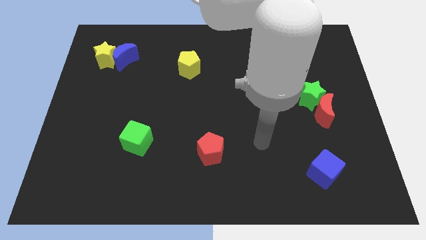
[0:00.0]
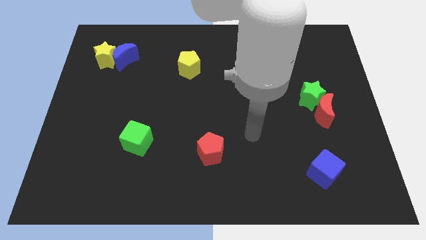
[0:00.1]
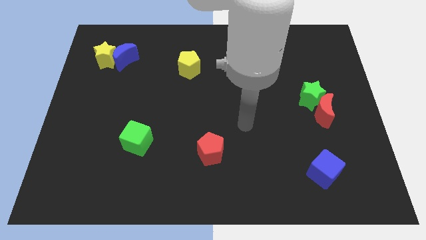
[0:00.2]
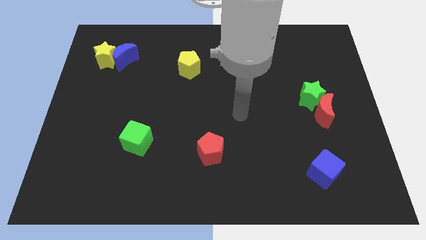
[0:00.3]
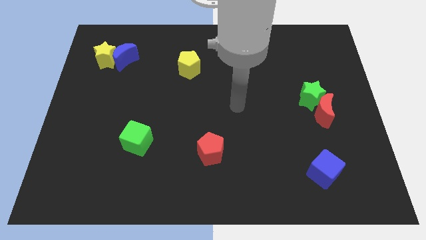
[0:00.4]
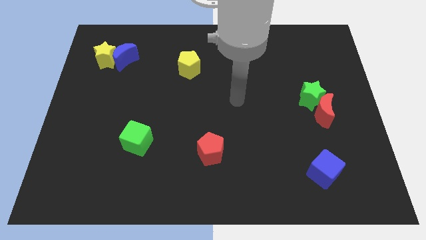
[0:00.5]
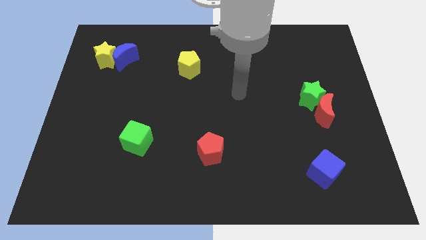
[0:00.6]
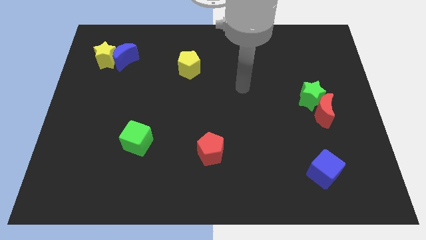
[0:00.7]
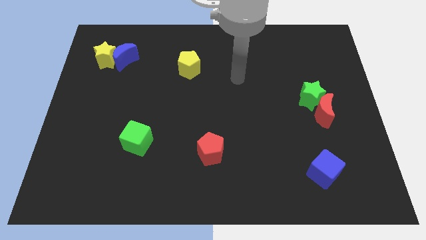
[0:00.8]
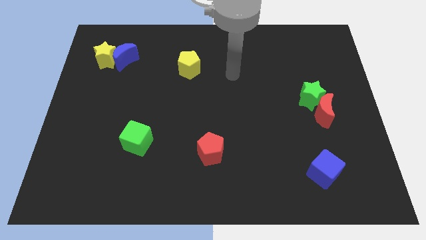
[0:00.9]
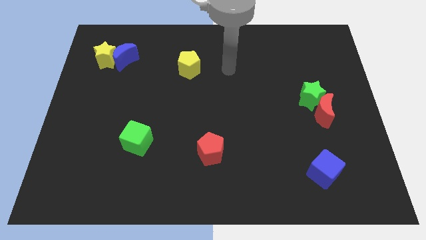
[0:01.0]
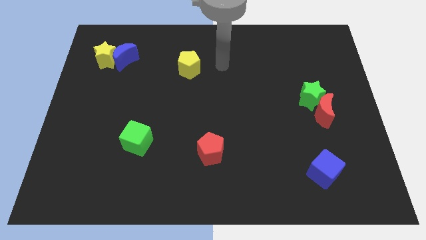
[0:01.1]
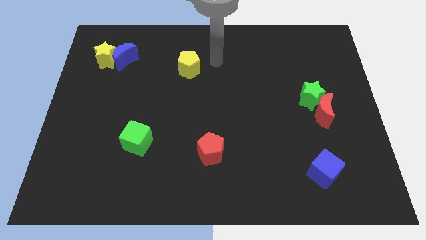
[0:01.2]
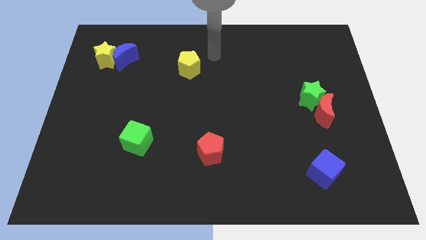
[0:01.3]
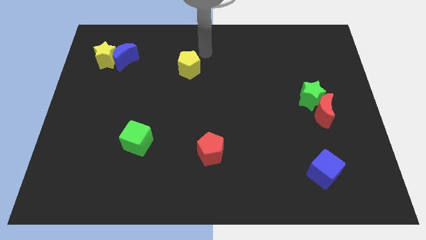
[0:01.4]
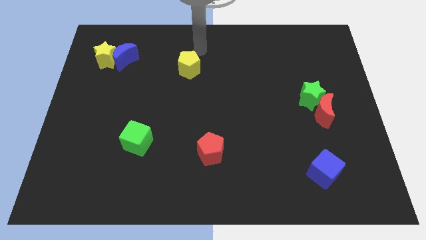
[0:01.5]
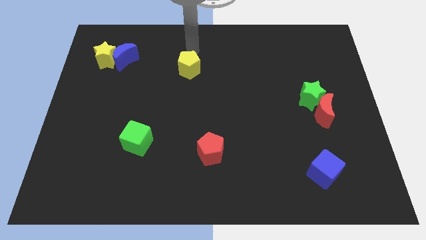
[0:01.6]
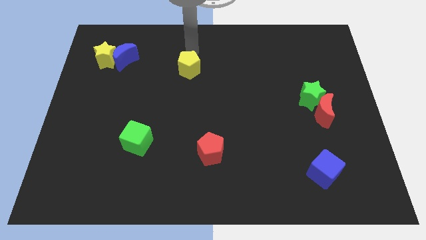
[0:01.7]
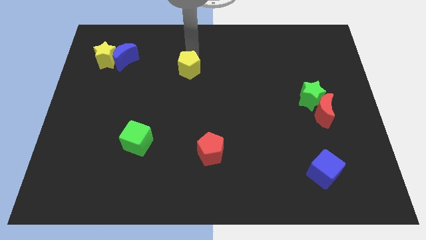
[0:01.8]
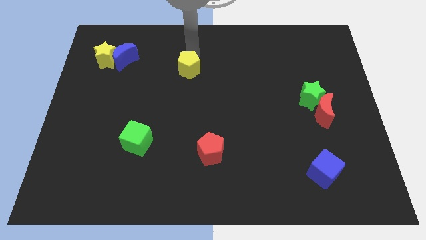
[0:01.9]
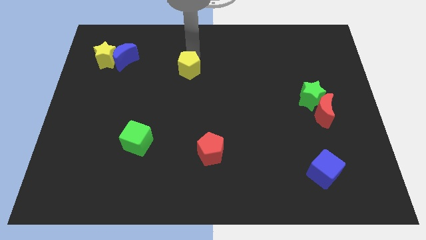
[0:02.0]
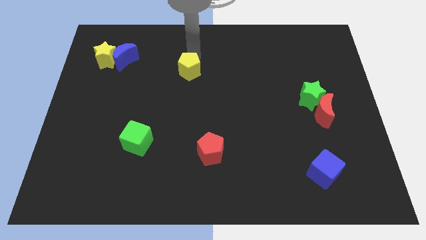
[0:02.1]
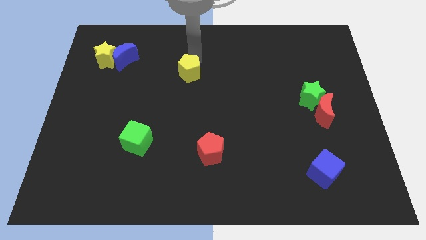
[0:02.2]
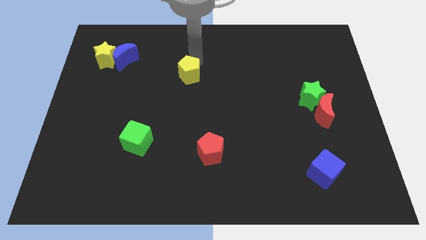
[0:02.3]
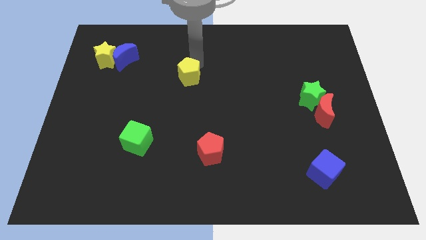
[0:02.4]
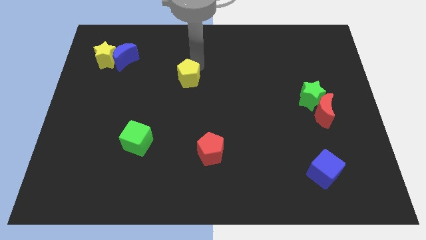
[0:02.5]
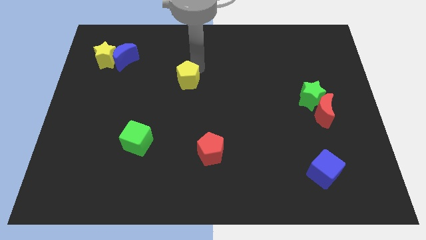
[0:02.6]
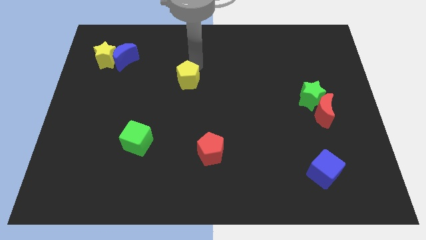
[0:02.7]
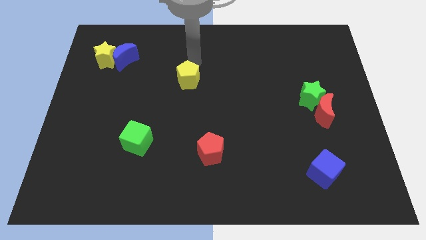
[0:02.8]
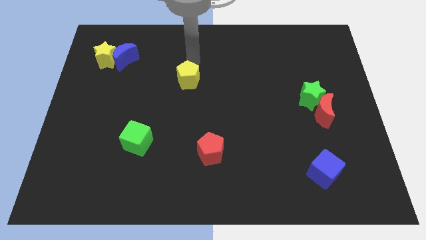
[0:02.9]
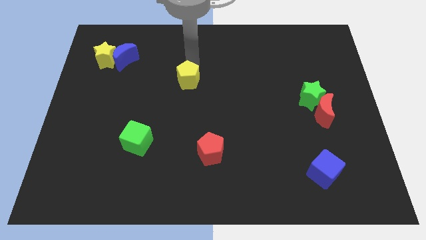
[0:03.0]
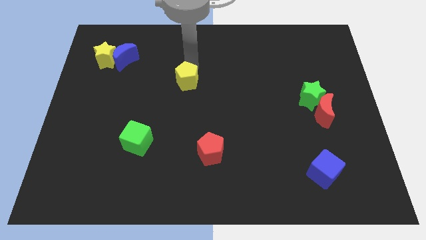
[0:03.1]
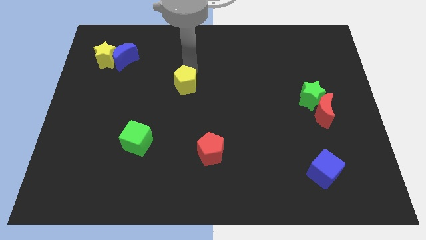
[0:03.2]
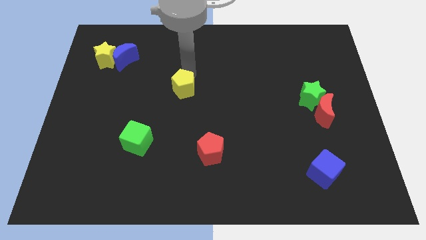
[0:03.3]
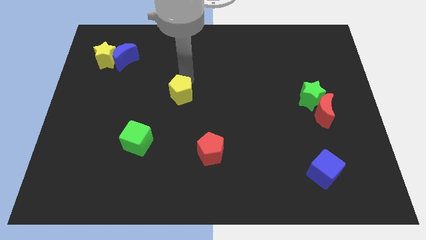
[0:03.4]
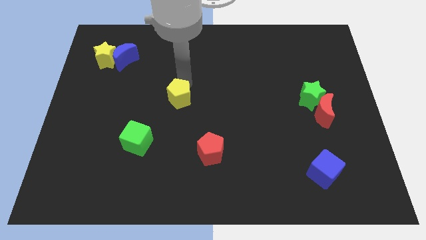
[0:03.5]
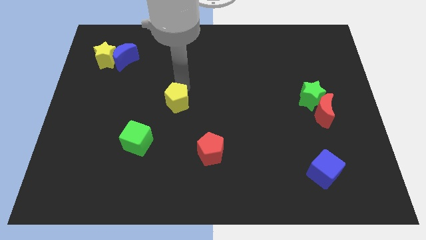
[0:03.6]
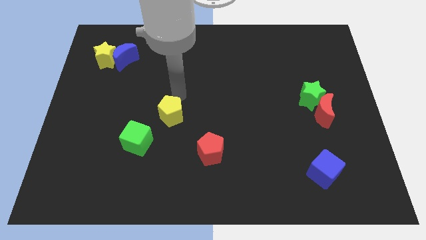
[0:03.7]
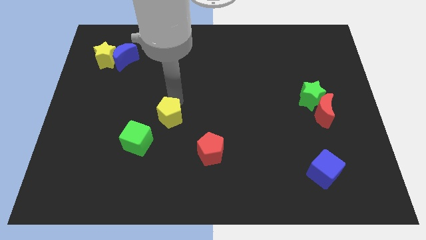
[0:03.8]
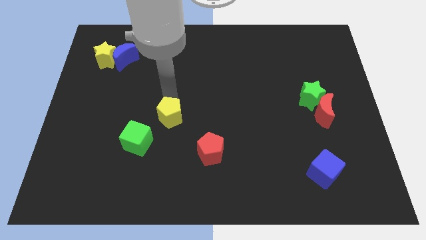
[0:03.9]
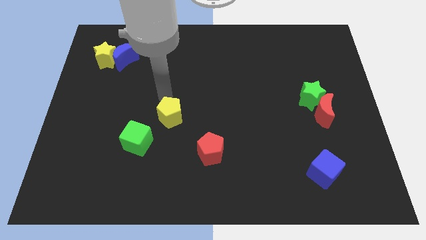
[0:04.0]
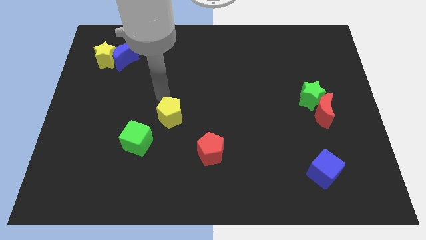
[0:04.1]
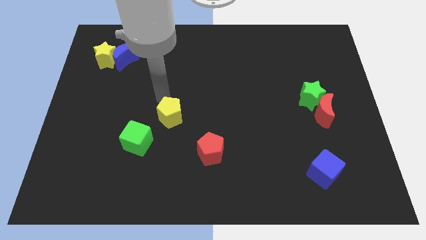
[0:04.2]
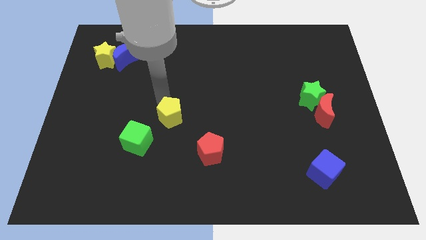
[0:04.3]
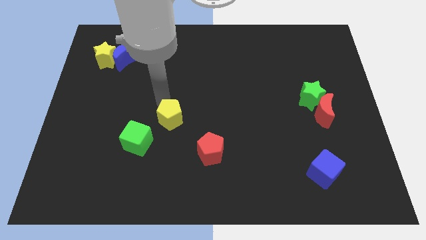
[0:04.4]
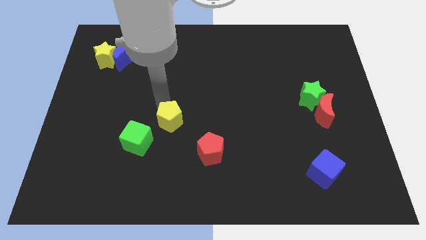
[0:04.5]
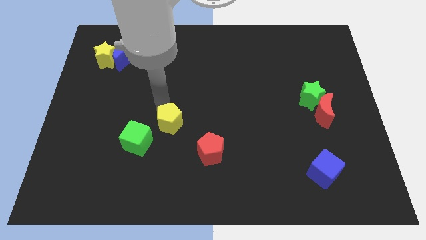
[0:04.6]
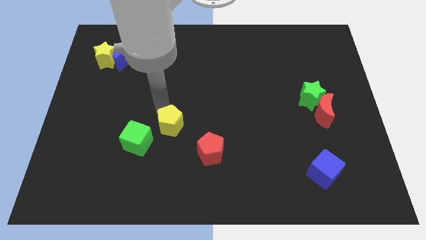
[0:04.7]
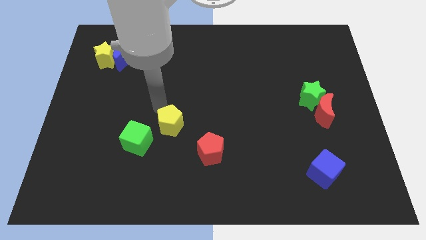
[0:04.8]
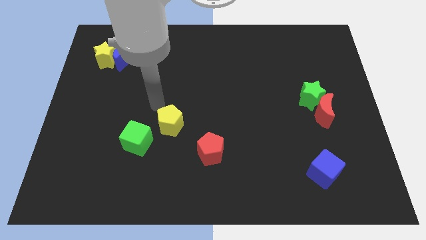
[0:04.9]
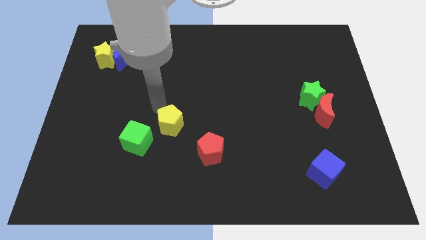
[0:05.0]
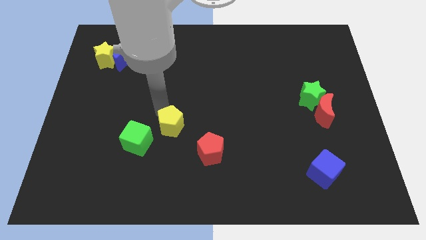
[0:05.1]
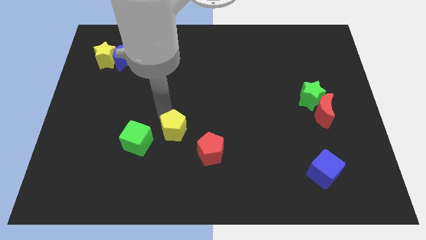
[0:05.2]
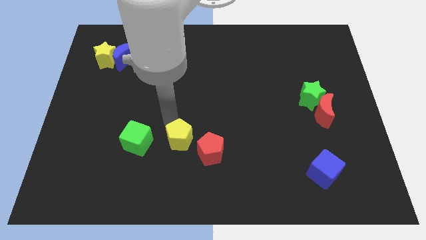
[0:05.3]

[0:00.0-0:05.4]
move the yellow pentagon downwards

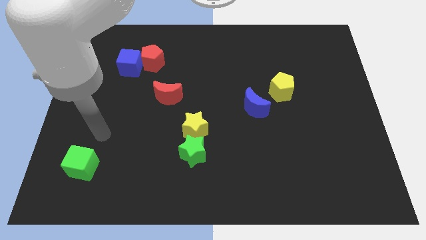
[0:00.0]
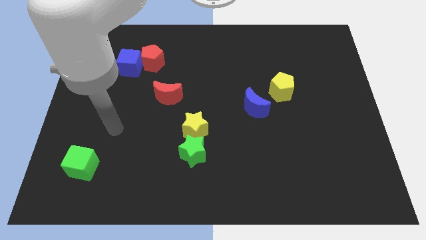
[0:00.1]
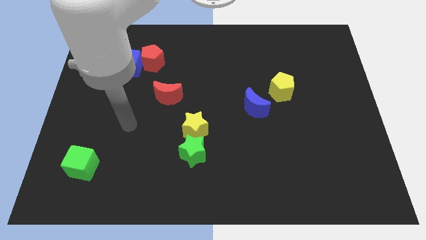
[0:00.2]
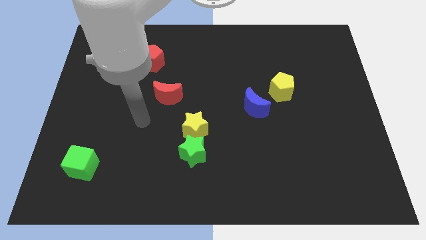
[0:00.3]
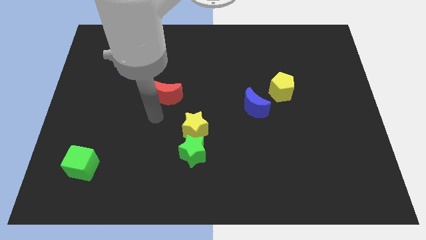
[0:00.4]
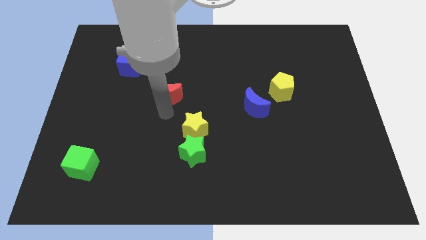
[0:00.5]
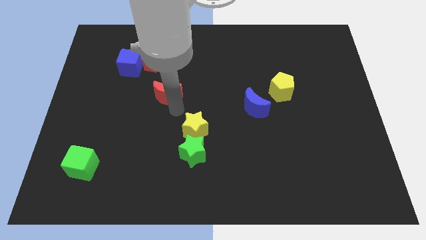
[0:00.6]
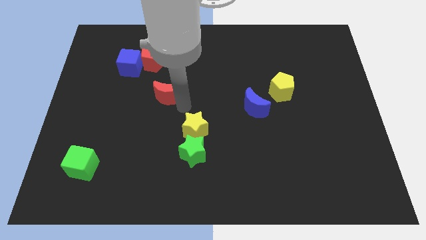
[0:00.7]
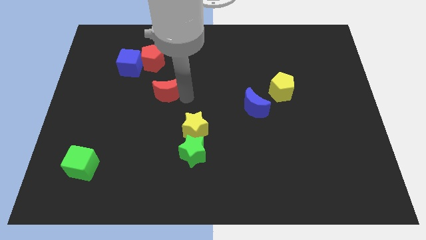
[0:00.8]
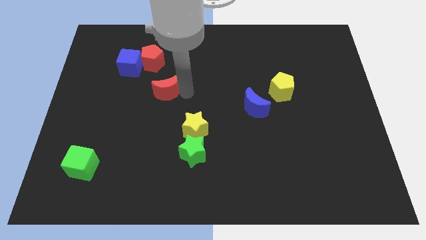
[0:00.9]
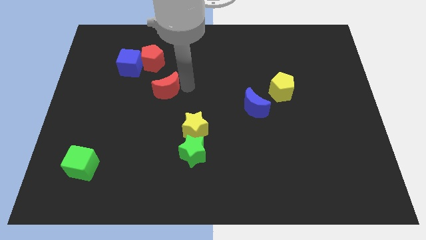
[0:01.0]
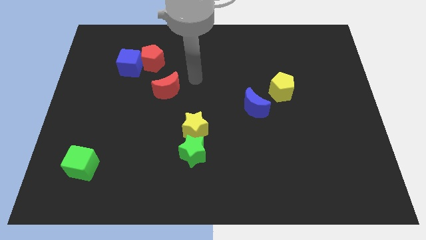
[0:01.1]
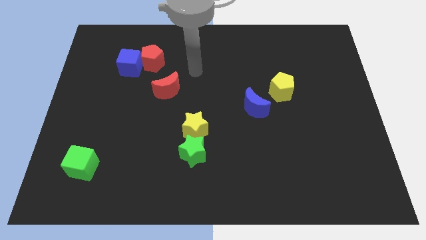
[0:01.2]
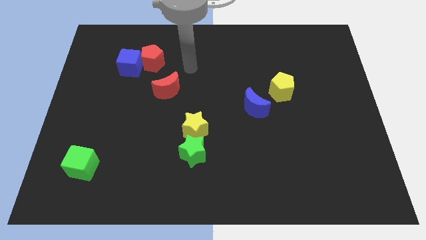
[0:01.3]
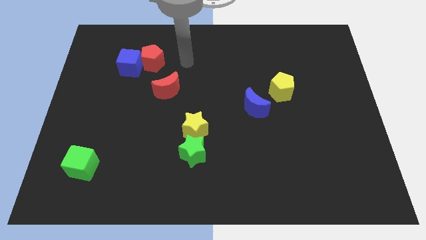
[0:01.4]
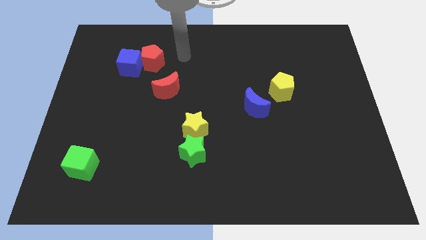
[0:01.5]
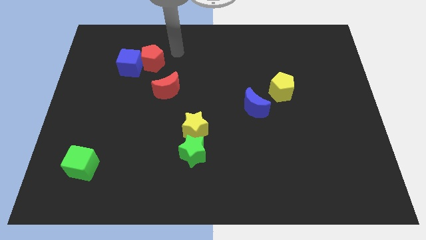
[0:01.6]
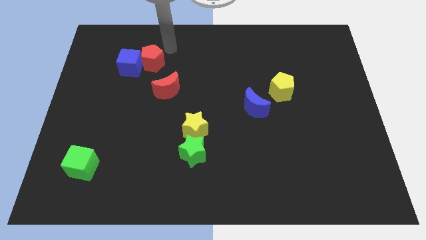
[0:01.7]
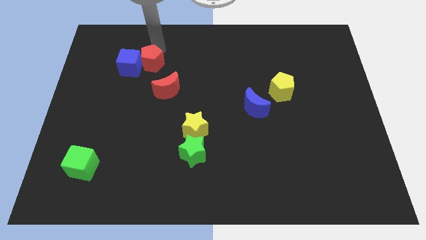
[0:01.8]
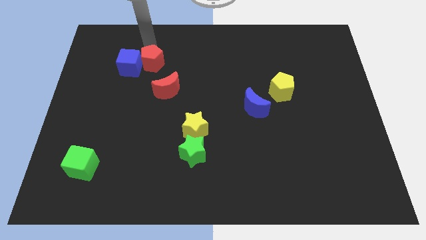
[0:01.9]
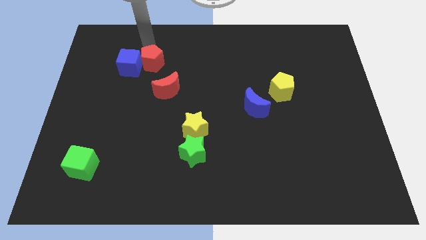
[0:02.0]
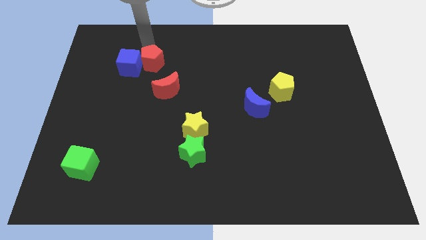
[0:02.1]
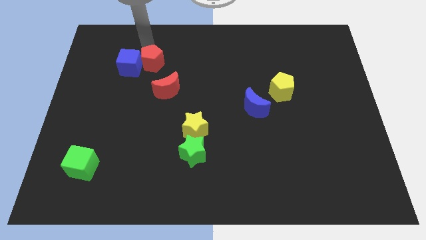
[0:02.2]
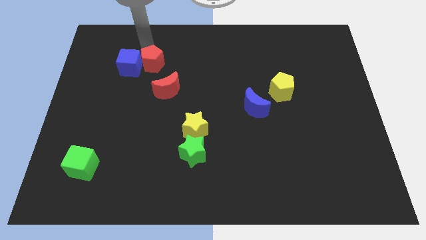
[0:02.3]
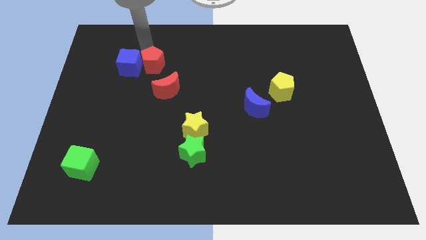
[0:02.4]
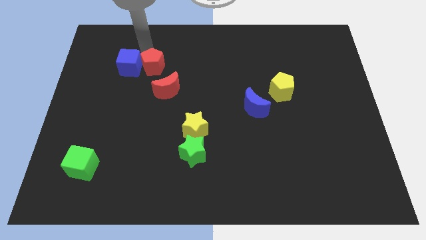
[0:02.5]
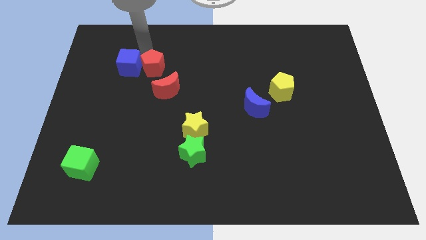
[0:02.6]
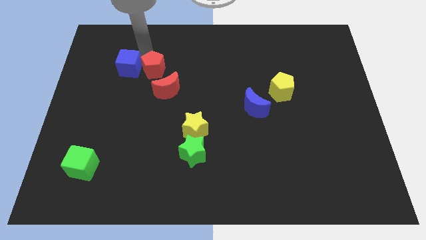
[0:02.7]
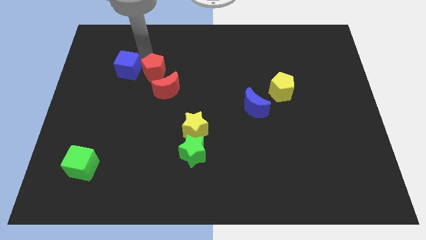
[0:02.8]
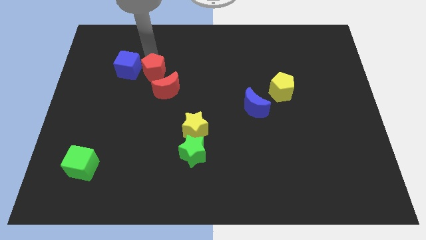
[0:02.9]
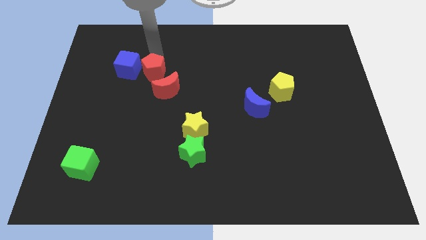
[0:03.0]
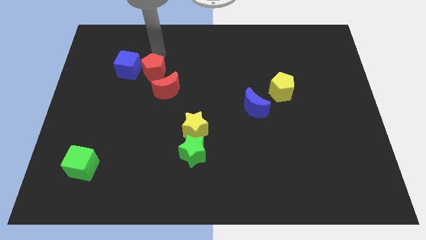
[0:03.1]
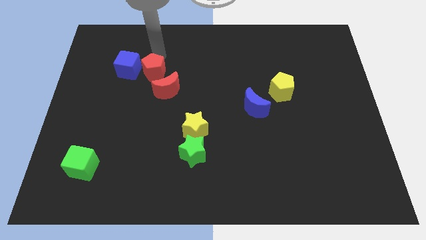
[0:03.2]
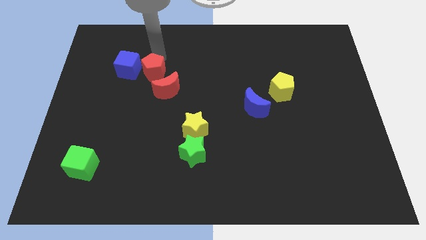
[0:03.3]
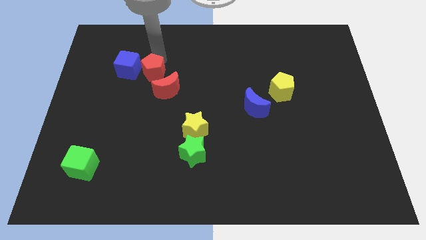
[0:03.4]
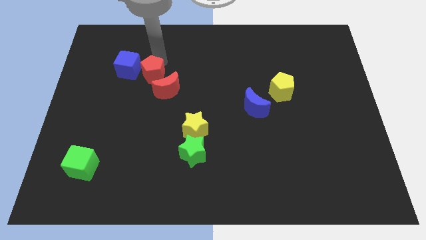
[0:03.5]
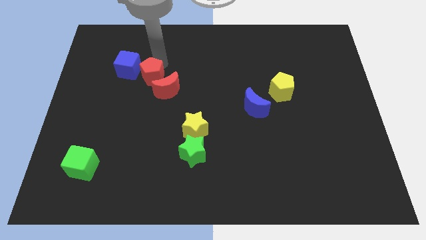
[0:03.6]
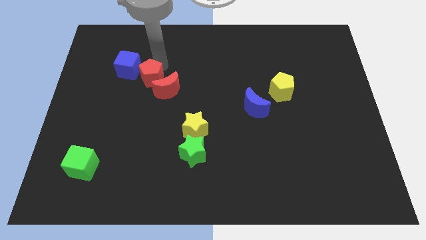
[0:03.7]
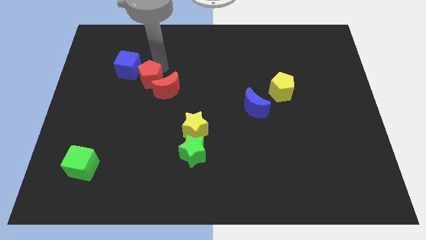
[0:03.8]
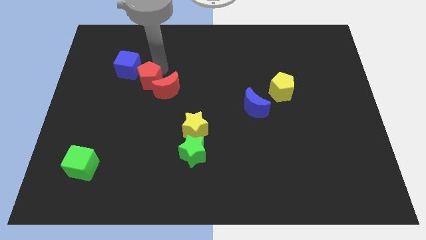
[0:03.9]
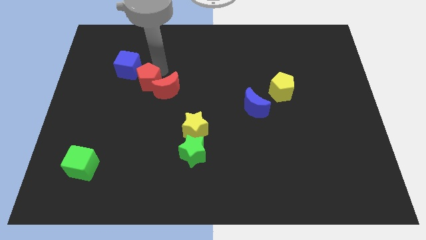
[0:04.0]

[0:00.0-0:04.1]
slide the red pentagon downwards somewhat
